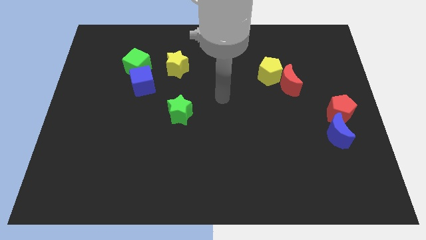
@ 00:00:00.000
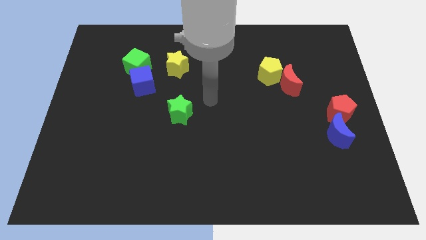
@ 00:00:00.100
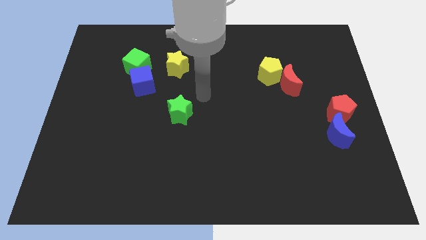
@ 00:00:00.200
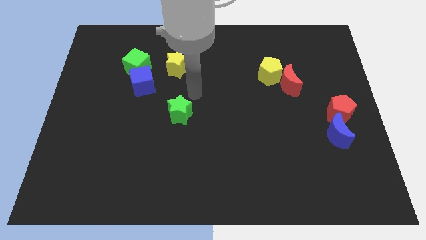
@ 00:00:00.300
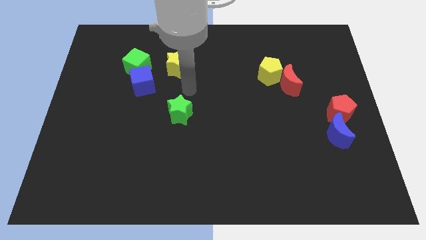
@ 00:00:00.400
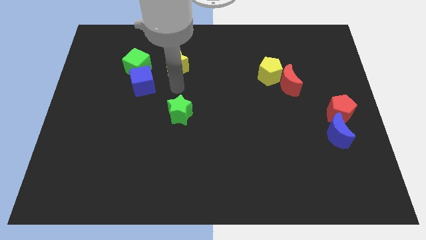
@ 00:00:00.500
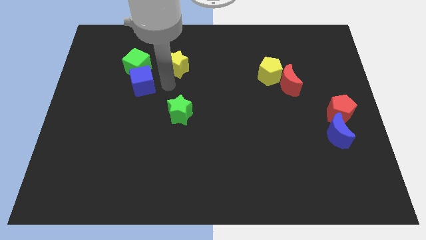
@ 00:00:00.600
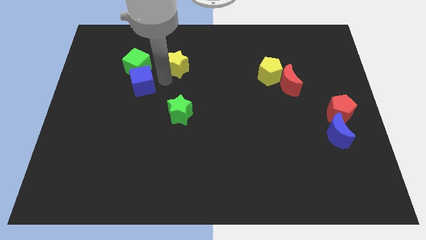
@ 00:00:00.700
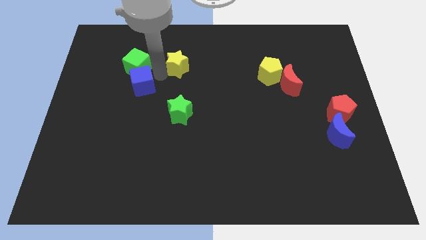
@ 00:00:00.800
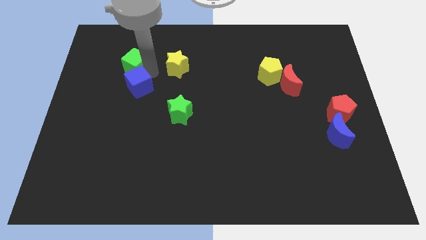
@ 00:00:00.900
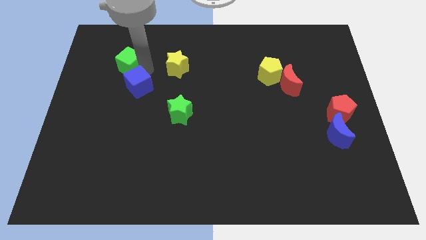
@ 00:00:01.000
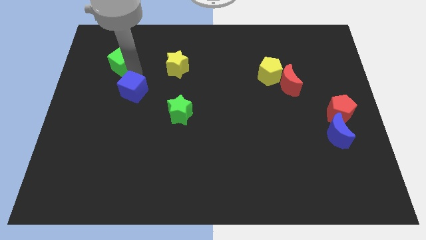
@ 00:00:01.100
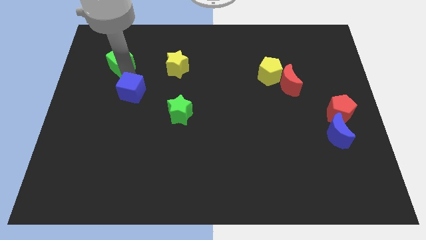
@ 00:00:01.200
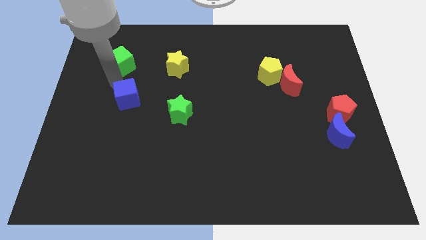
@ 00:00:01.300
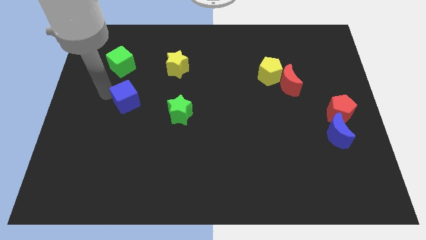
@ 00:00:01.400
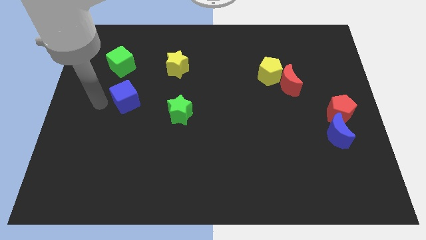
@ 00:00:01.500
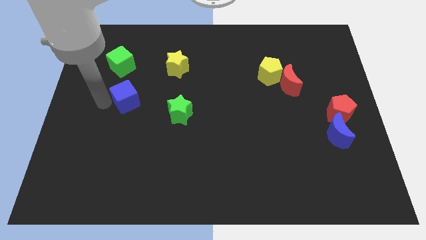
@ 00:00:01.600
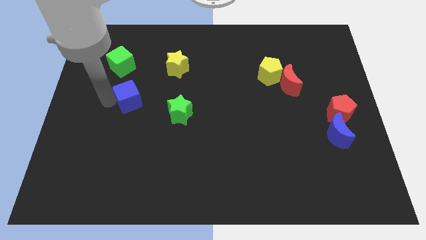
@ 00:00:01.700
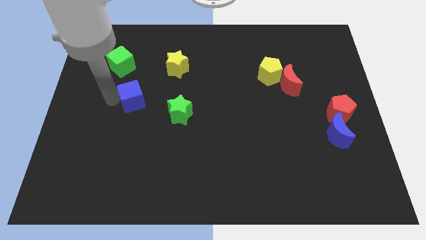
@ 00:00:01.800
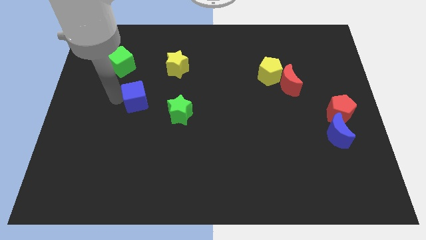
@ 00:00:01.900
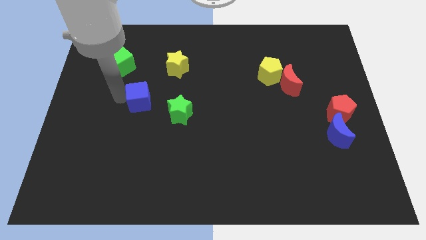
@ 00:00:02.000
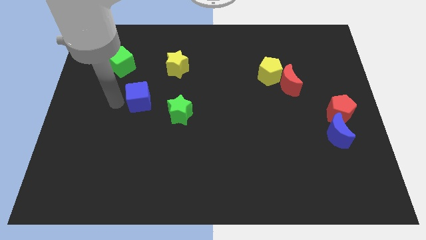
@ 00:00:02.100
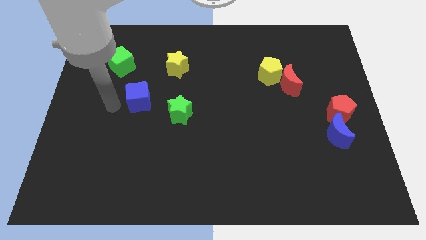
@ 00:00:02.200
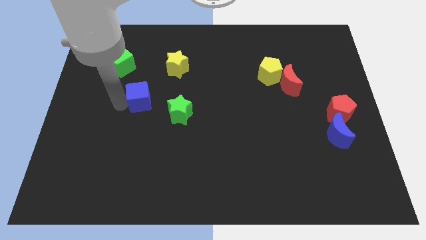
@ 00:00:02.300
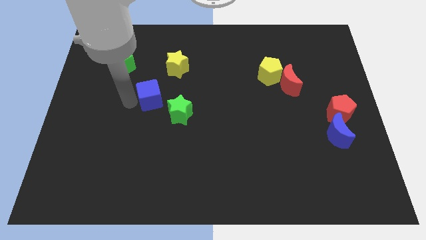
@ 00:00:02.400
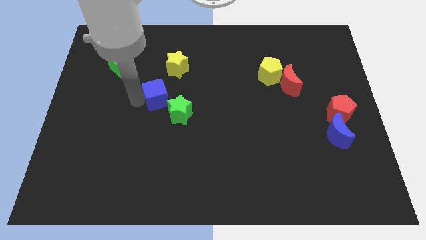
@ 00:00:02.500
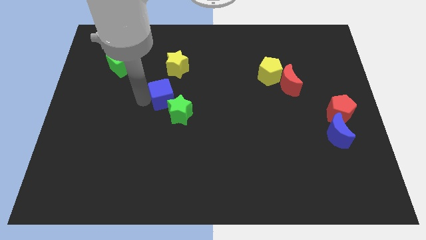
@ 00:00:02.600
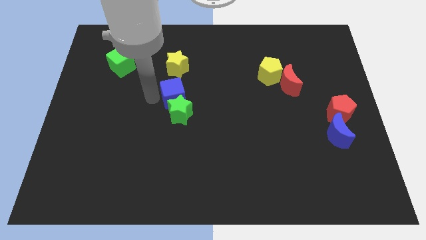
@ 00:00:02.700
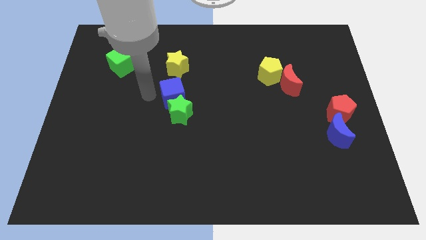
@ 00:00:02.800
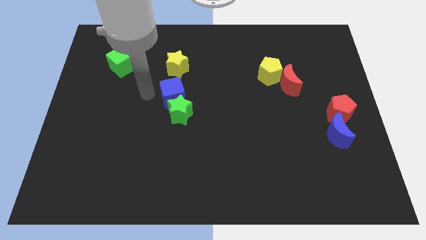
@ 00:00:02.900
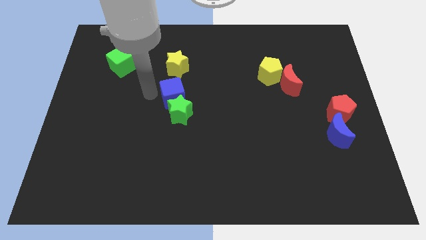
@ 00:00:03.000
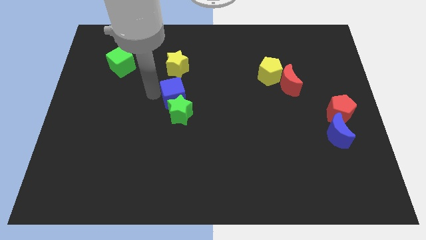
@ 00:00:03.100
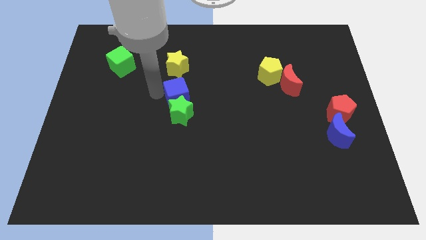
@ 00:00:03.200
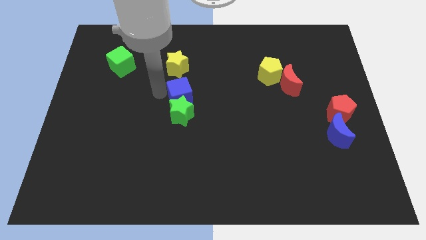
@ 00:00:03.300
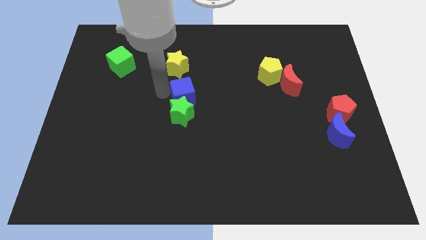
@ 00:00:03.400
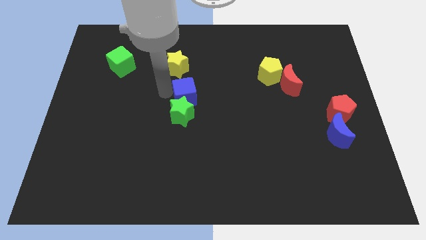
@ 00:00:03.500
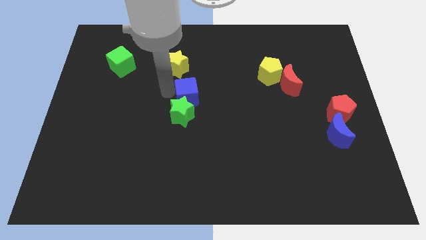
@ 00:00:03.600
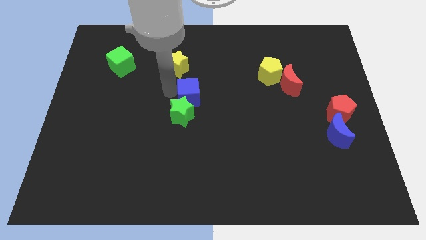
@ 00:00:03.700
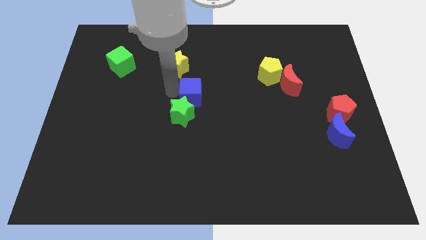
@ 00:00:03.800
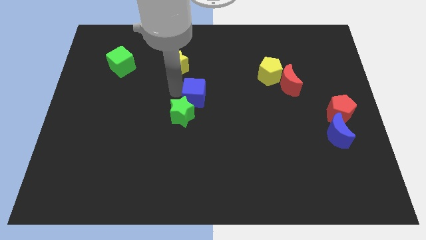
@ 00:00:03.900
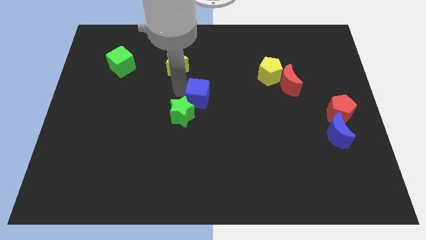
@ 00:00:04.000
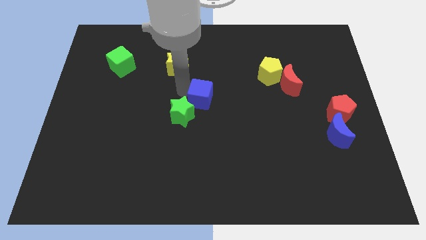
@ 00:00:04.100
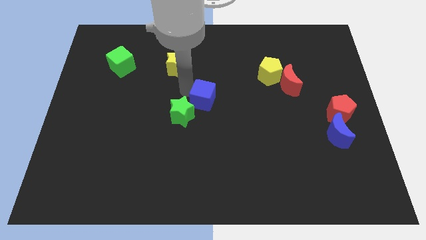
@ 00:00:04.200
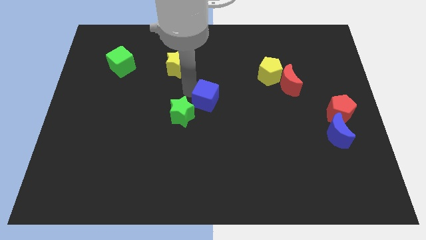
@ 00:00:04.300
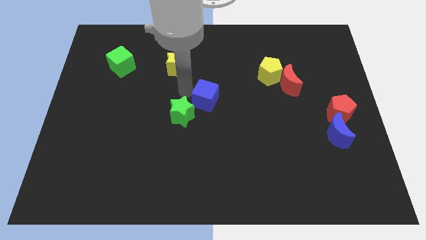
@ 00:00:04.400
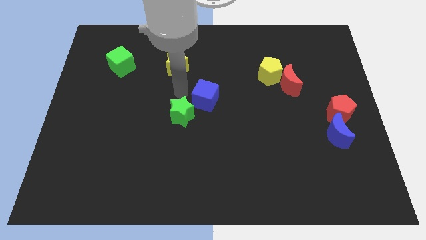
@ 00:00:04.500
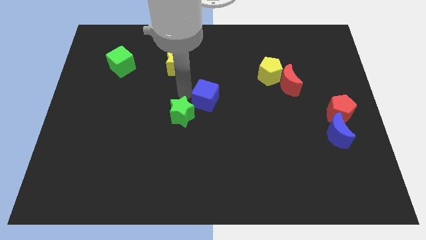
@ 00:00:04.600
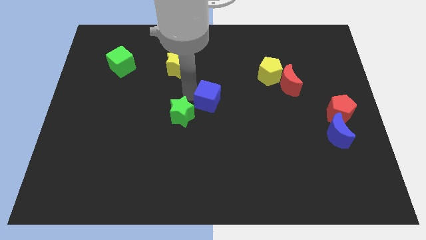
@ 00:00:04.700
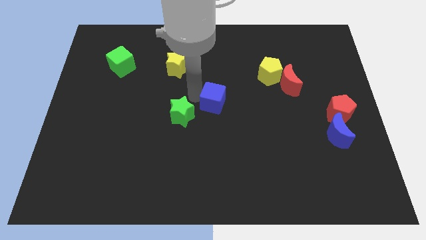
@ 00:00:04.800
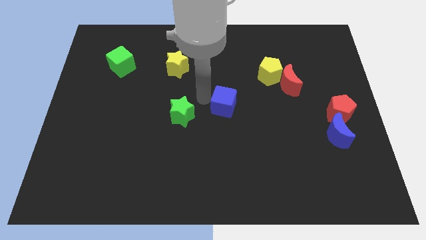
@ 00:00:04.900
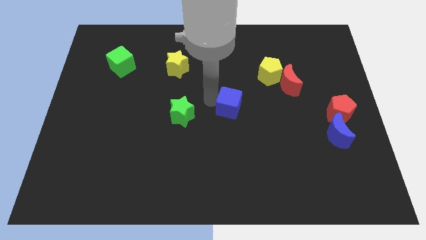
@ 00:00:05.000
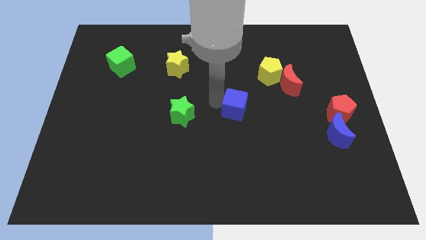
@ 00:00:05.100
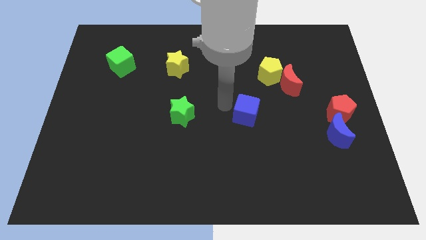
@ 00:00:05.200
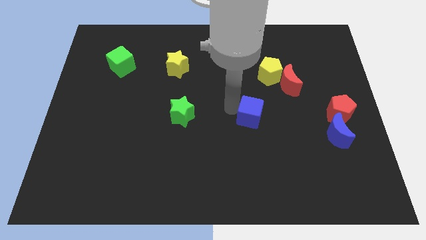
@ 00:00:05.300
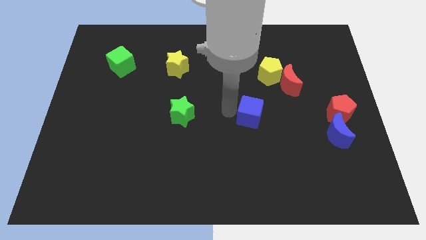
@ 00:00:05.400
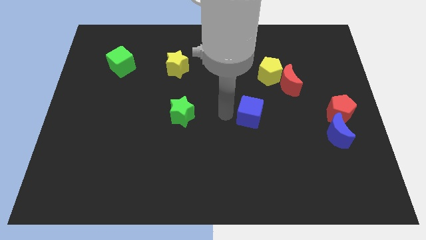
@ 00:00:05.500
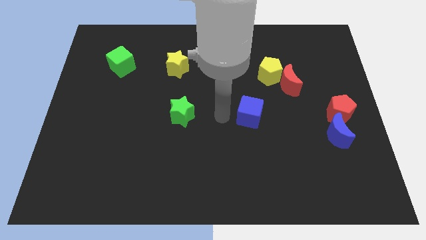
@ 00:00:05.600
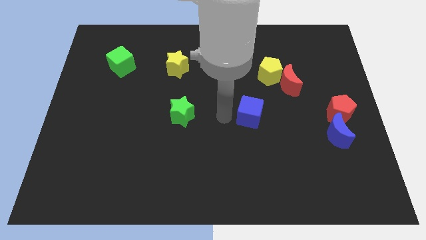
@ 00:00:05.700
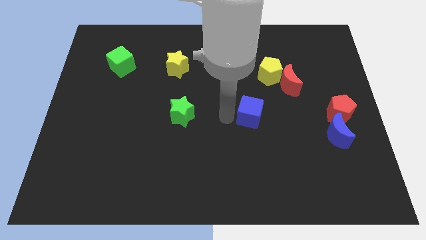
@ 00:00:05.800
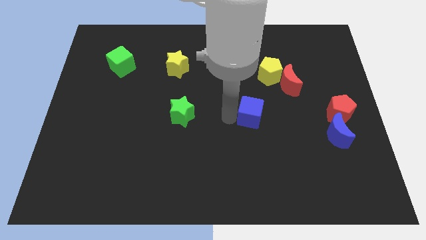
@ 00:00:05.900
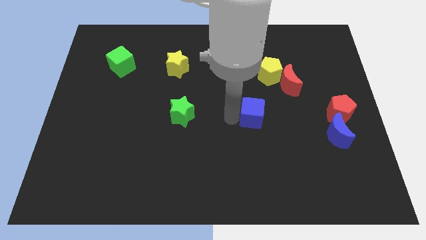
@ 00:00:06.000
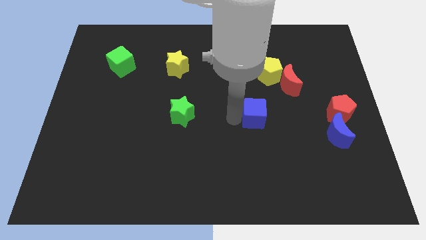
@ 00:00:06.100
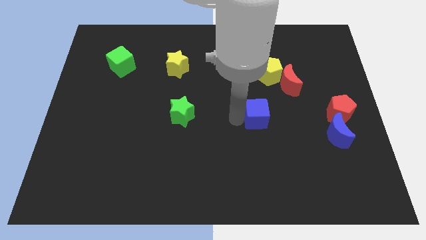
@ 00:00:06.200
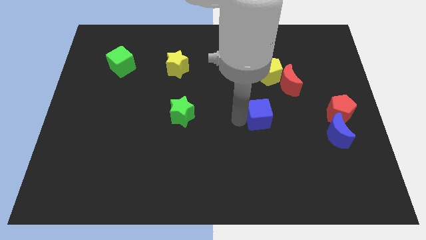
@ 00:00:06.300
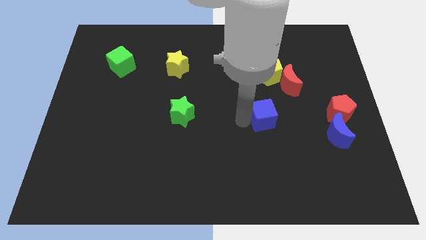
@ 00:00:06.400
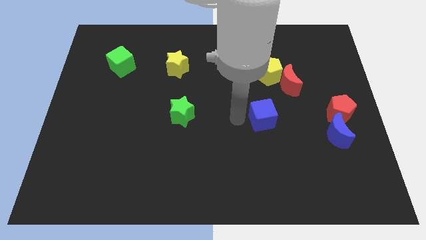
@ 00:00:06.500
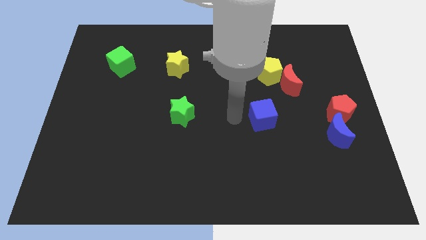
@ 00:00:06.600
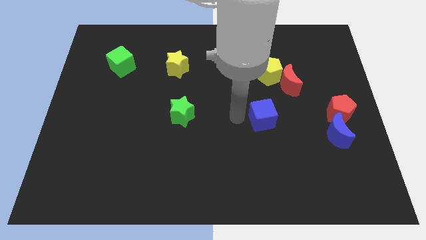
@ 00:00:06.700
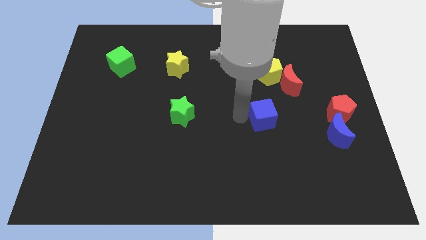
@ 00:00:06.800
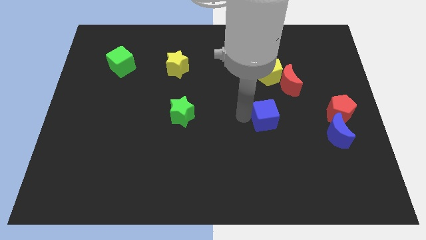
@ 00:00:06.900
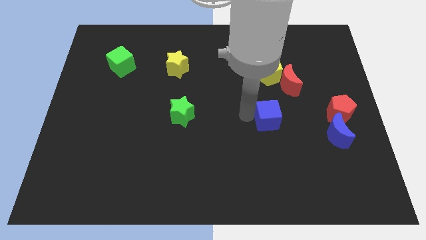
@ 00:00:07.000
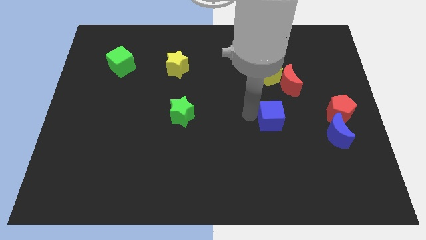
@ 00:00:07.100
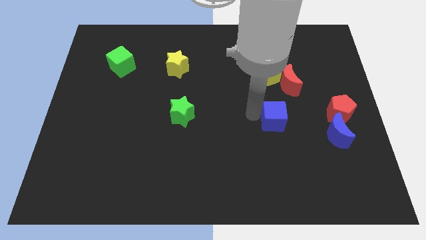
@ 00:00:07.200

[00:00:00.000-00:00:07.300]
move the blue cube to the bottom side of the red moon
